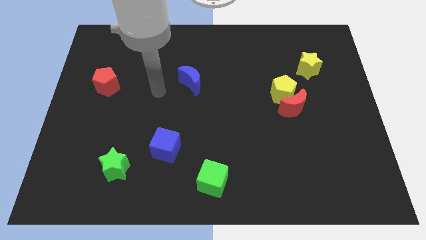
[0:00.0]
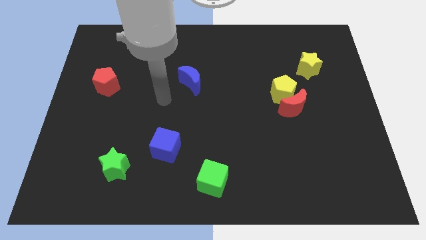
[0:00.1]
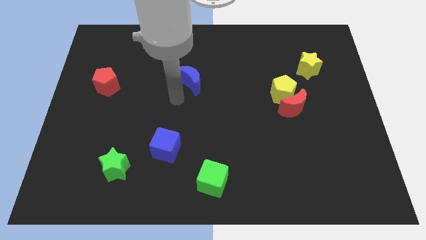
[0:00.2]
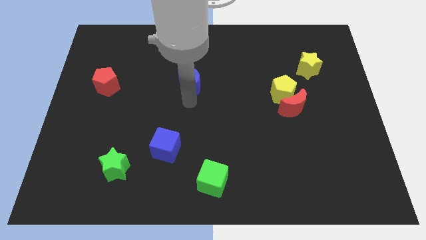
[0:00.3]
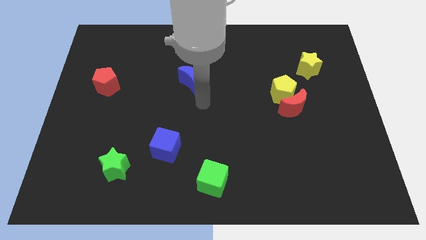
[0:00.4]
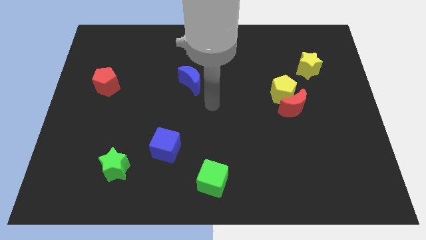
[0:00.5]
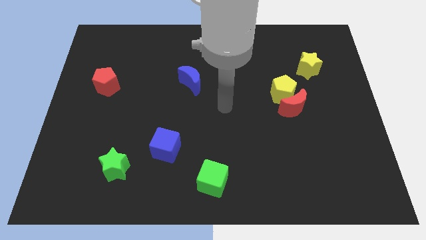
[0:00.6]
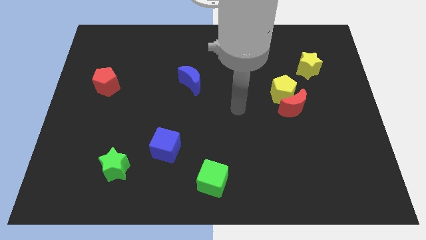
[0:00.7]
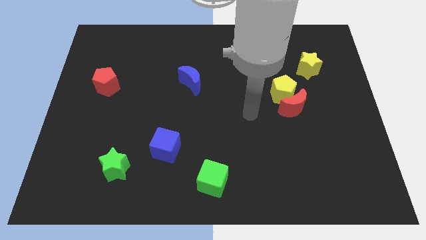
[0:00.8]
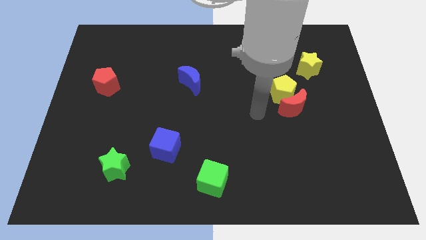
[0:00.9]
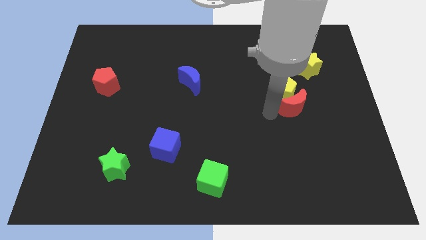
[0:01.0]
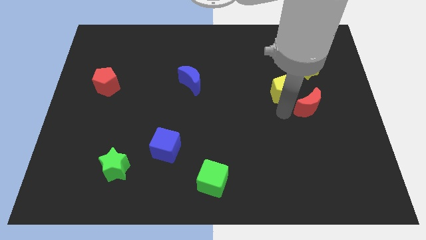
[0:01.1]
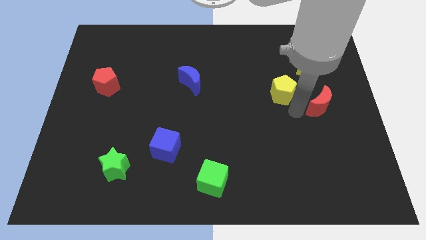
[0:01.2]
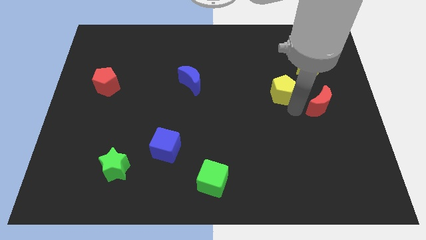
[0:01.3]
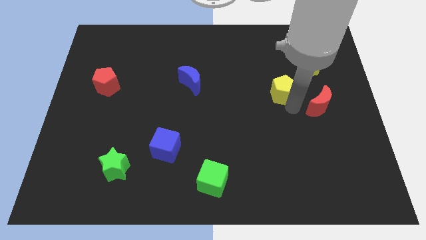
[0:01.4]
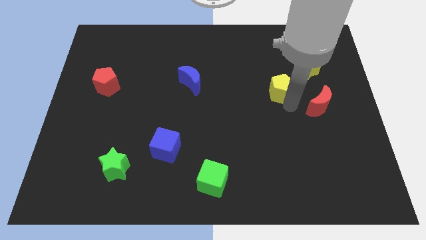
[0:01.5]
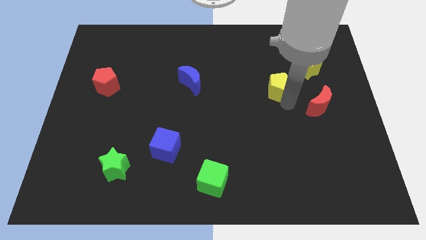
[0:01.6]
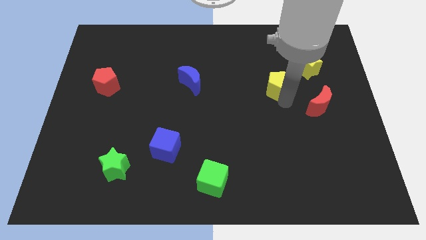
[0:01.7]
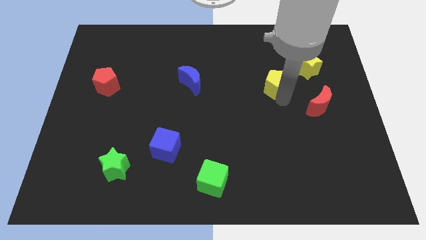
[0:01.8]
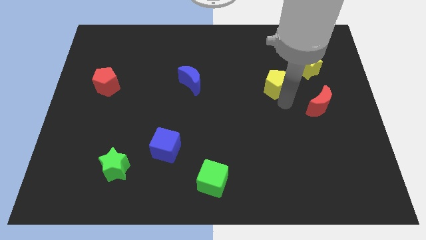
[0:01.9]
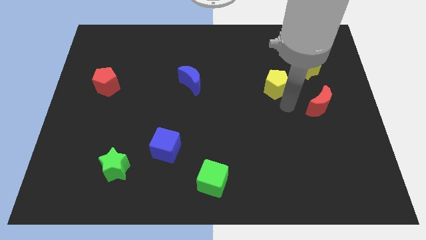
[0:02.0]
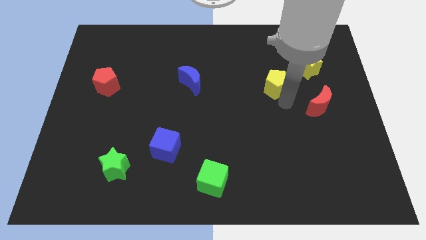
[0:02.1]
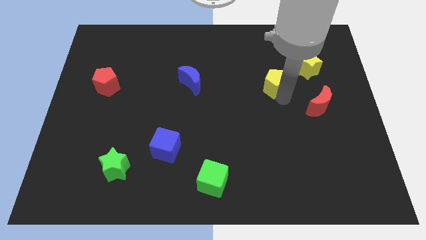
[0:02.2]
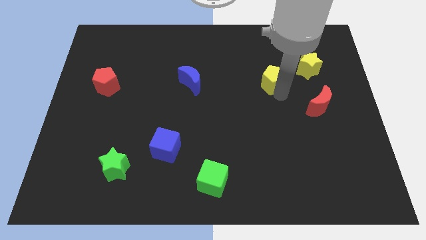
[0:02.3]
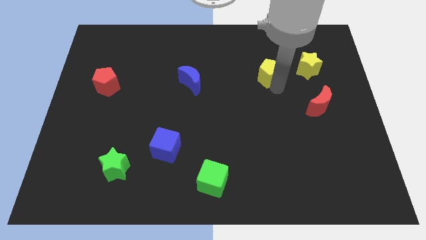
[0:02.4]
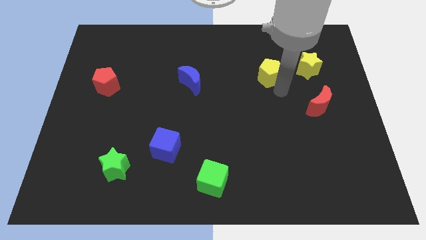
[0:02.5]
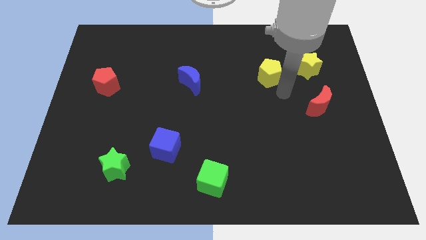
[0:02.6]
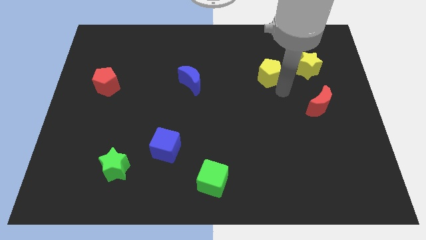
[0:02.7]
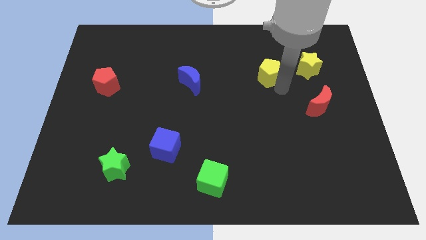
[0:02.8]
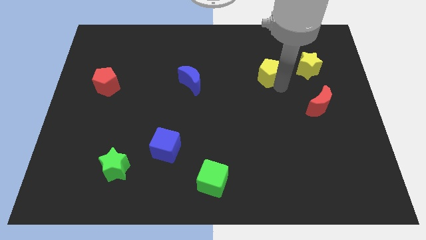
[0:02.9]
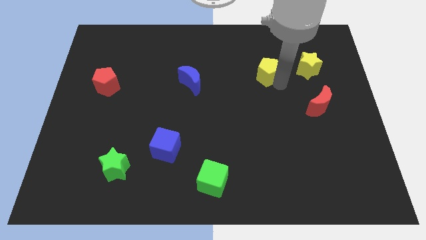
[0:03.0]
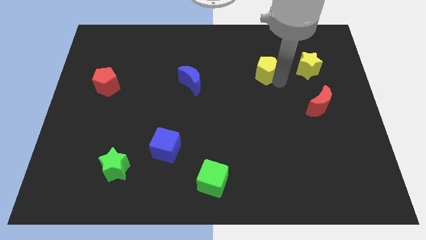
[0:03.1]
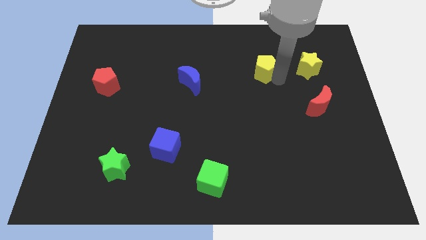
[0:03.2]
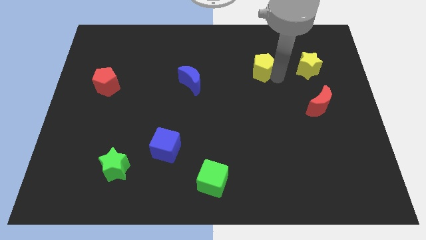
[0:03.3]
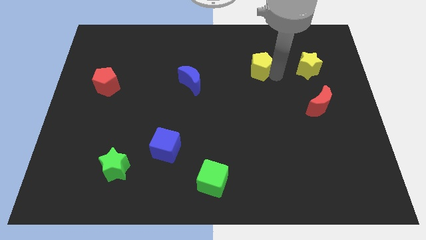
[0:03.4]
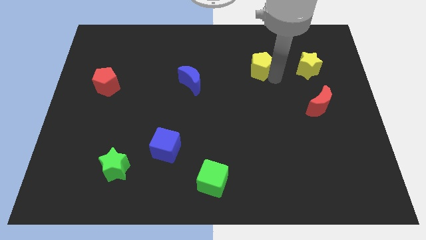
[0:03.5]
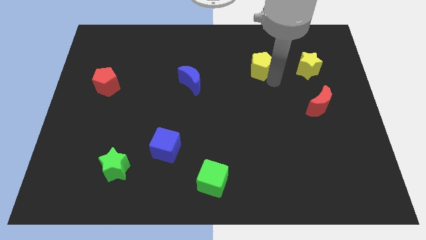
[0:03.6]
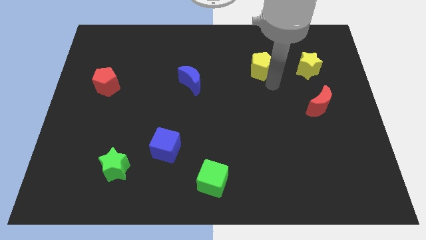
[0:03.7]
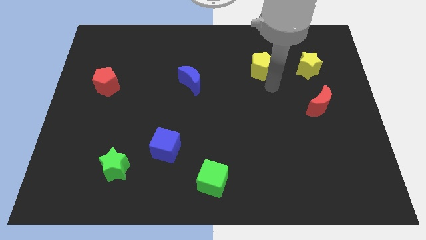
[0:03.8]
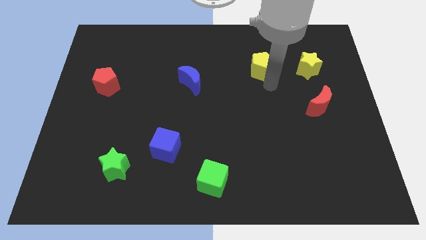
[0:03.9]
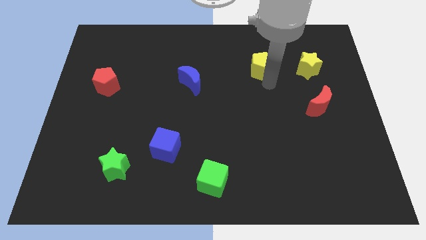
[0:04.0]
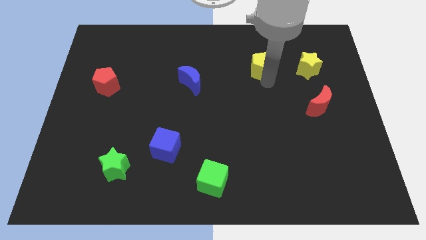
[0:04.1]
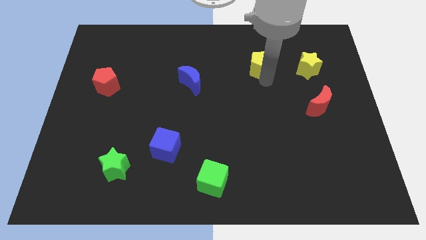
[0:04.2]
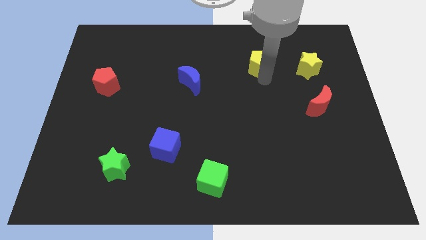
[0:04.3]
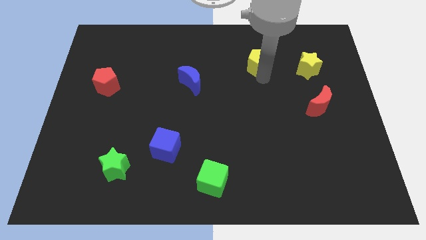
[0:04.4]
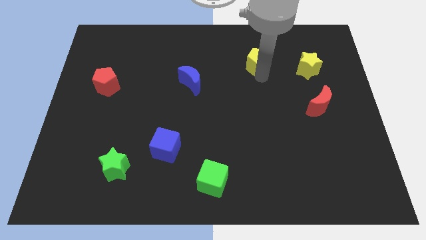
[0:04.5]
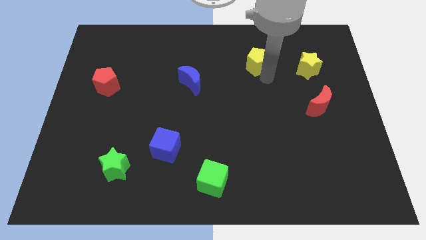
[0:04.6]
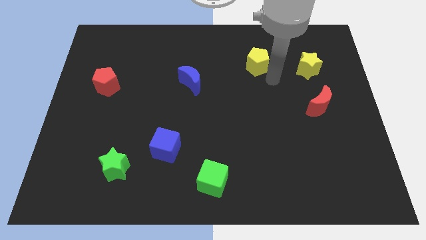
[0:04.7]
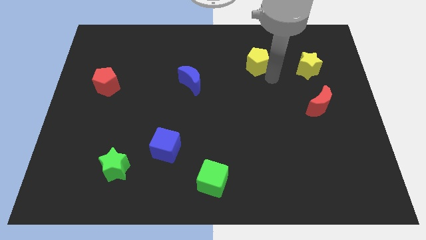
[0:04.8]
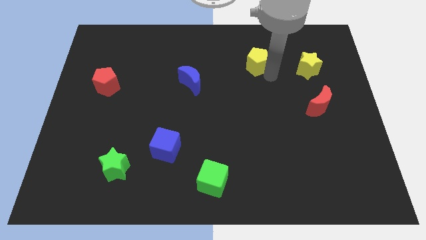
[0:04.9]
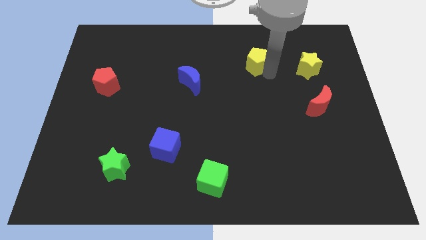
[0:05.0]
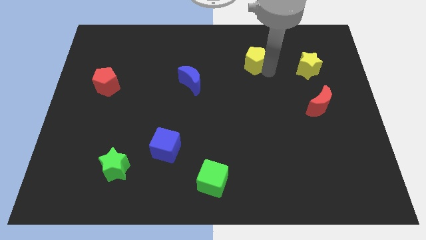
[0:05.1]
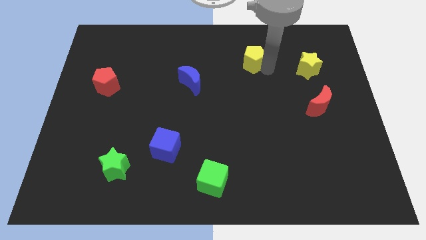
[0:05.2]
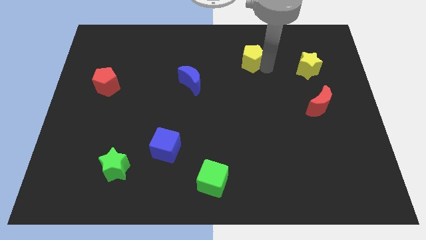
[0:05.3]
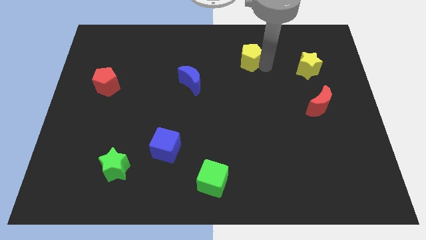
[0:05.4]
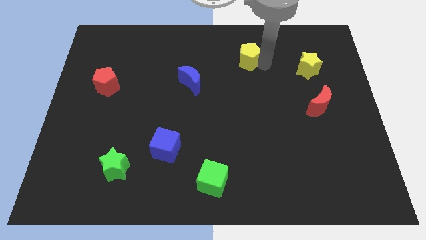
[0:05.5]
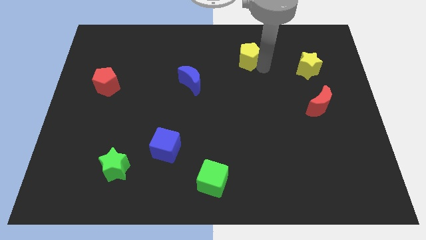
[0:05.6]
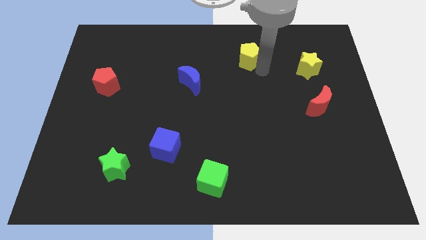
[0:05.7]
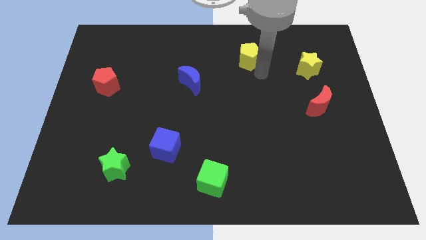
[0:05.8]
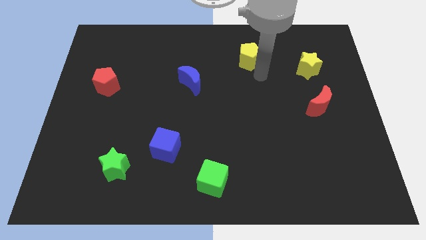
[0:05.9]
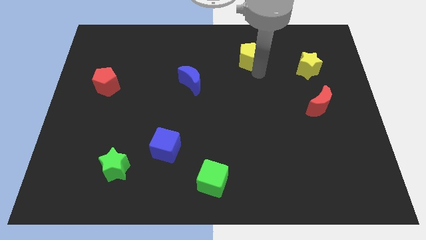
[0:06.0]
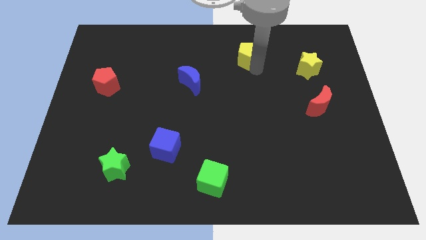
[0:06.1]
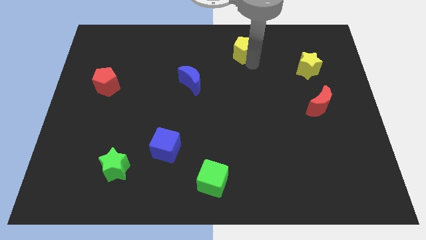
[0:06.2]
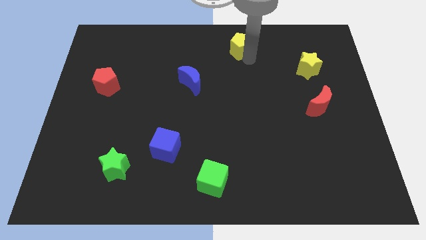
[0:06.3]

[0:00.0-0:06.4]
push the yellow pentagon to the top side

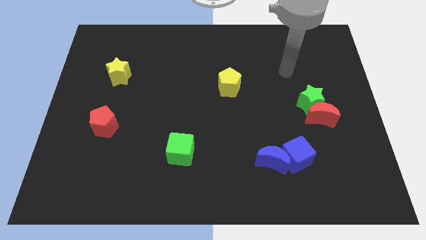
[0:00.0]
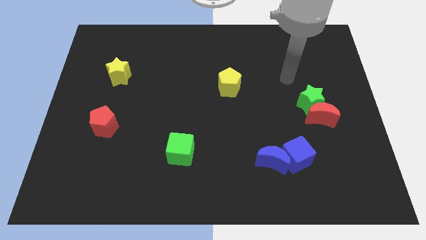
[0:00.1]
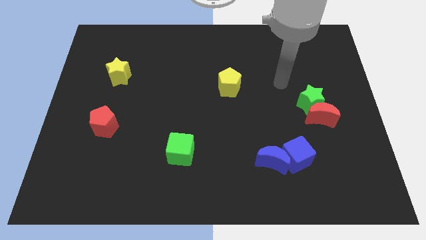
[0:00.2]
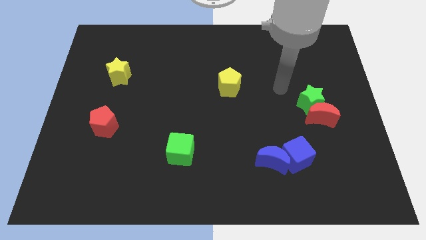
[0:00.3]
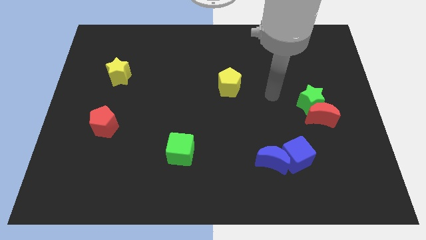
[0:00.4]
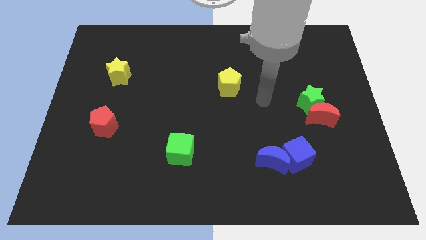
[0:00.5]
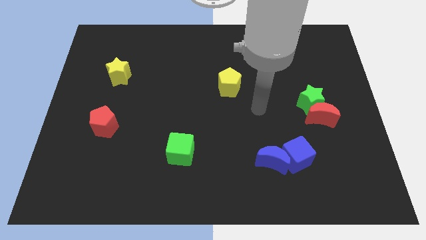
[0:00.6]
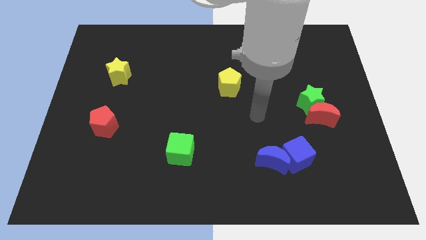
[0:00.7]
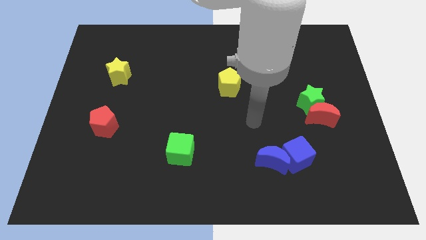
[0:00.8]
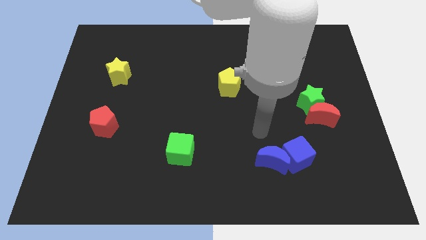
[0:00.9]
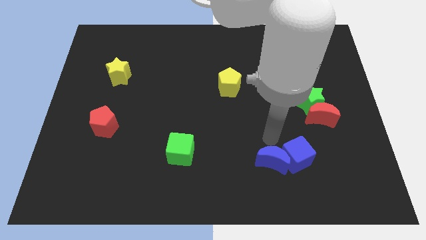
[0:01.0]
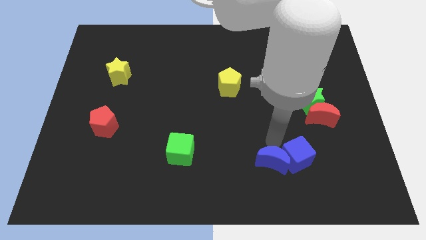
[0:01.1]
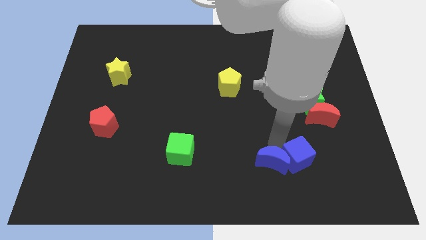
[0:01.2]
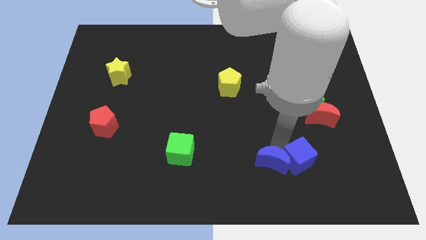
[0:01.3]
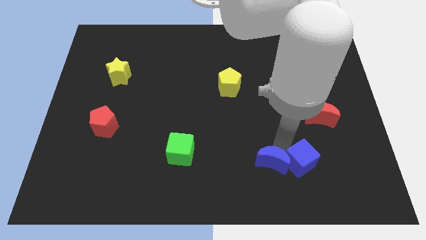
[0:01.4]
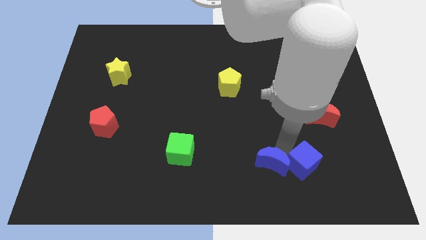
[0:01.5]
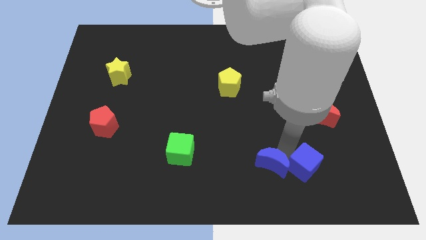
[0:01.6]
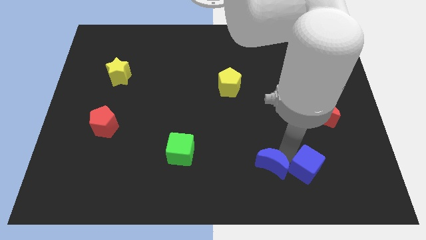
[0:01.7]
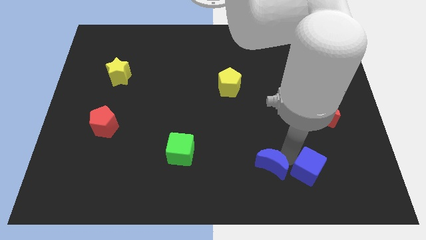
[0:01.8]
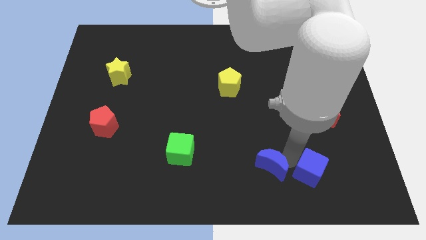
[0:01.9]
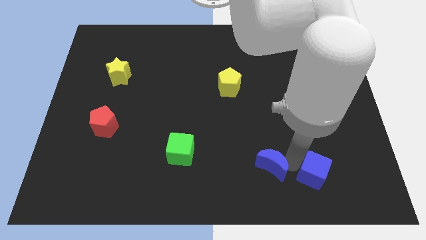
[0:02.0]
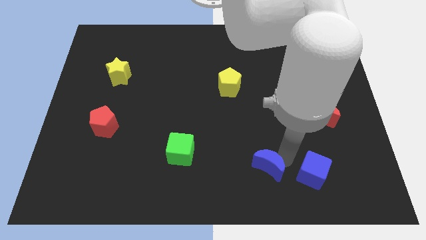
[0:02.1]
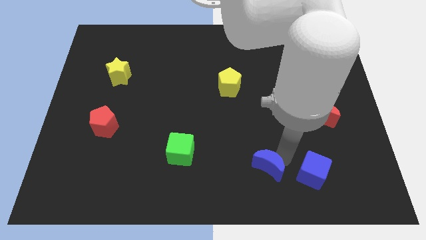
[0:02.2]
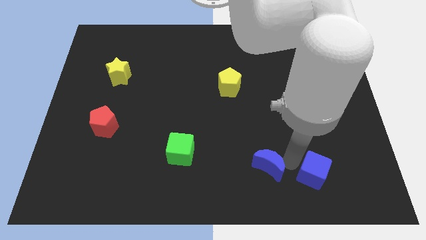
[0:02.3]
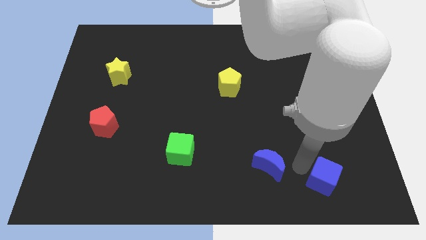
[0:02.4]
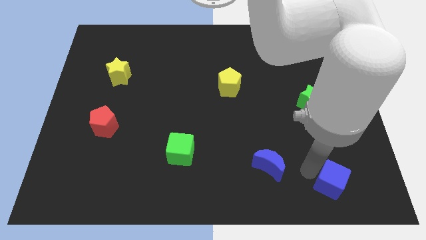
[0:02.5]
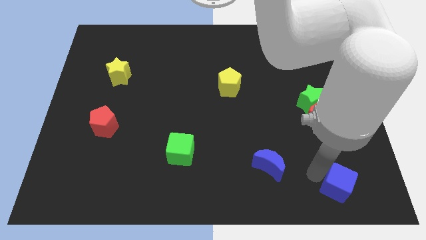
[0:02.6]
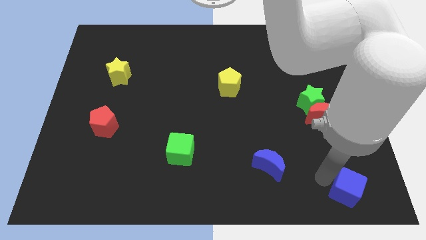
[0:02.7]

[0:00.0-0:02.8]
push the blue cube to the lower right corner
